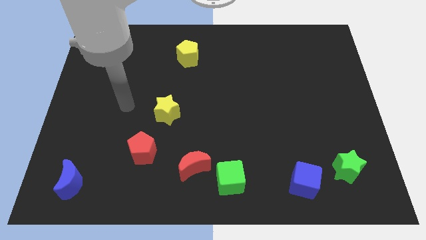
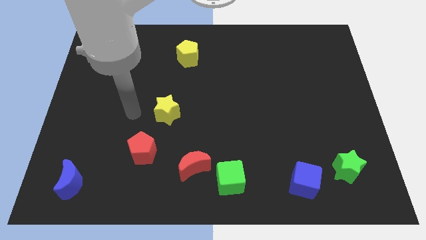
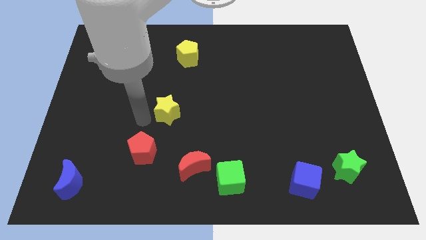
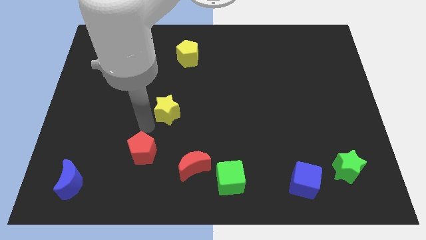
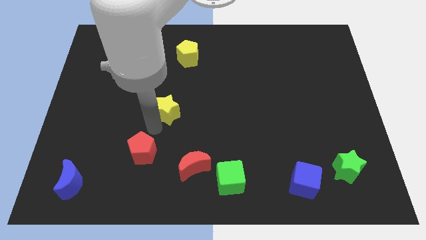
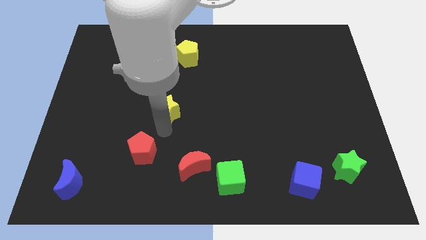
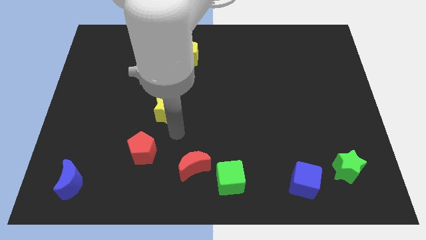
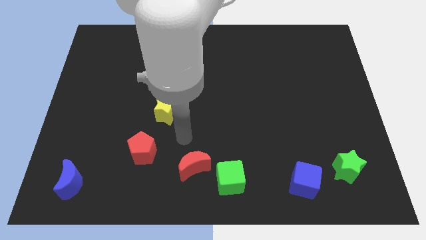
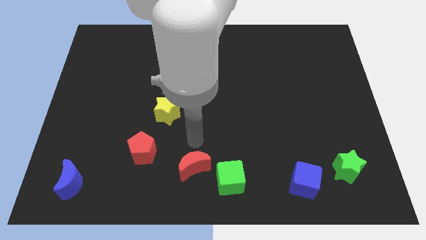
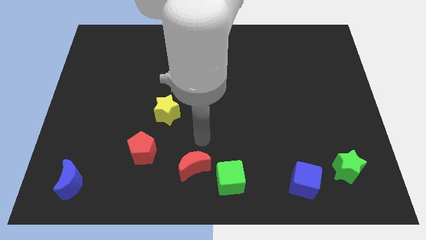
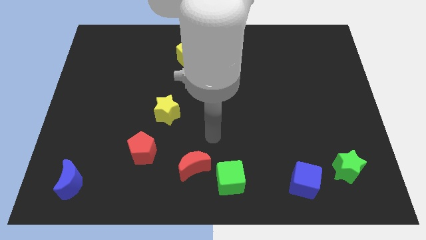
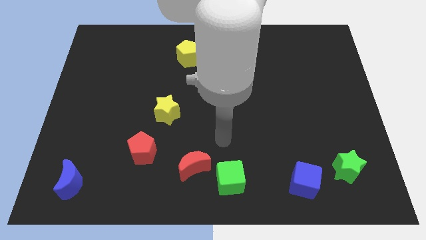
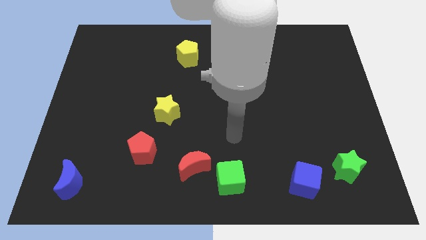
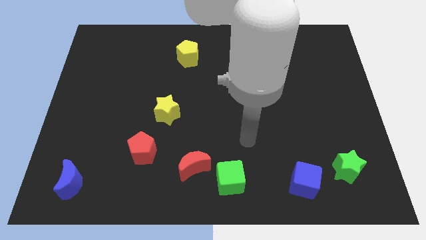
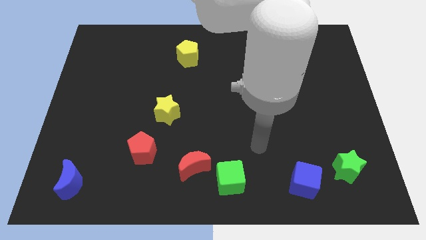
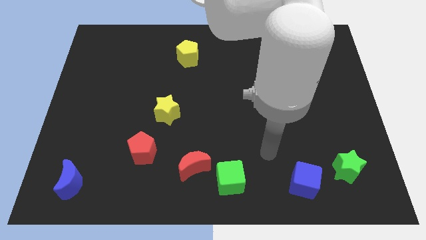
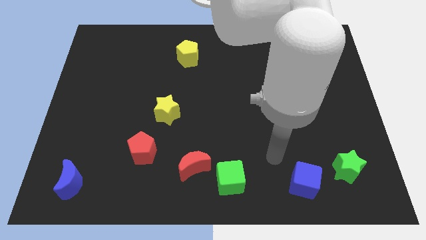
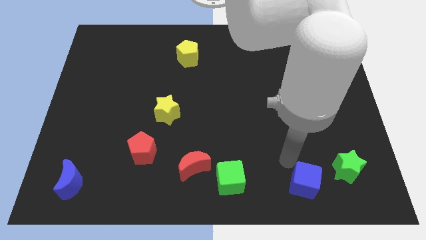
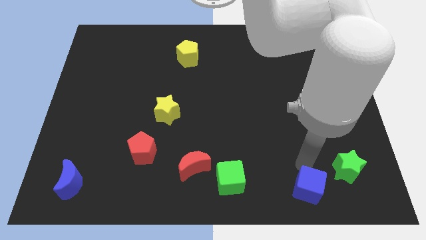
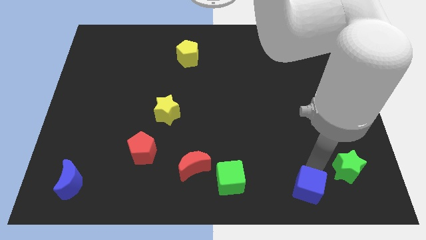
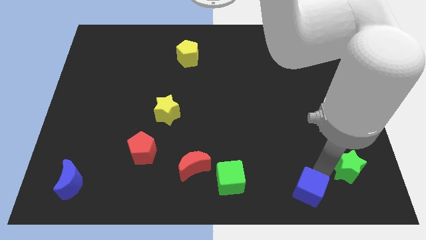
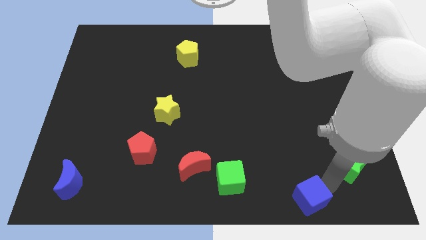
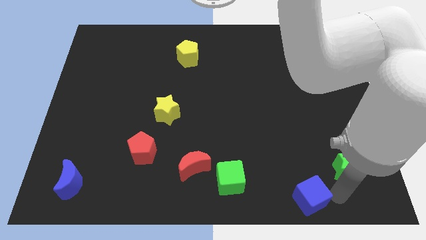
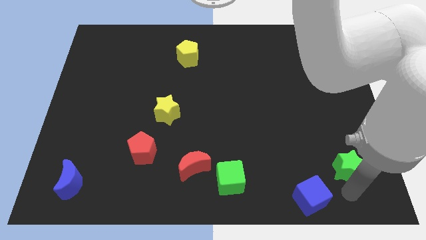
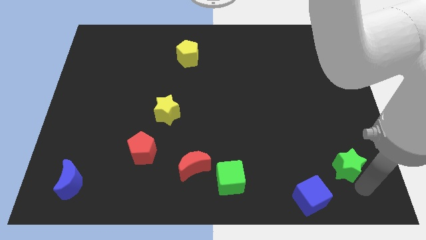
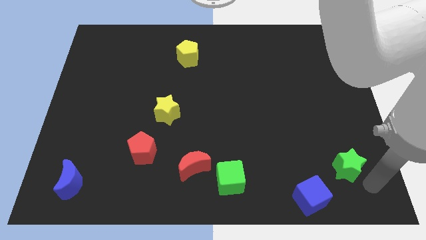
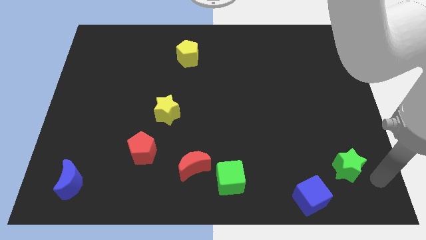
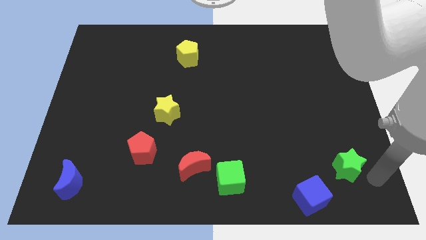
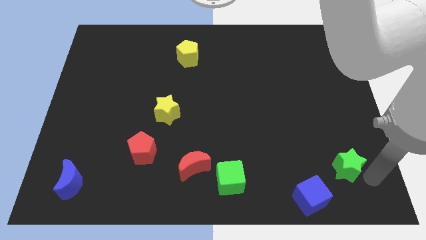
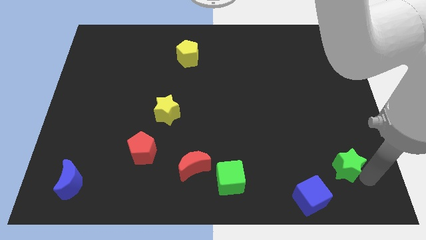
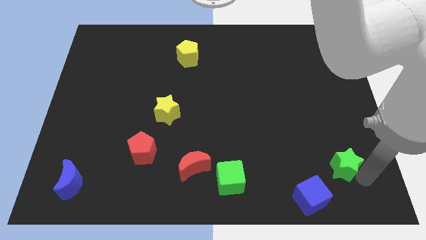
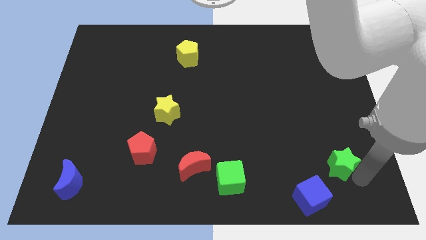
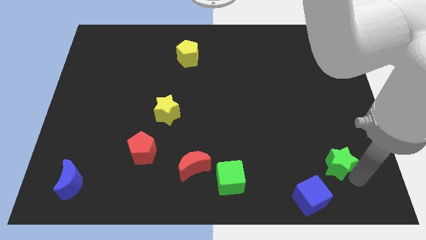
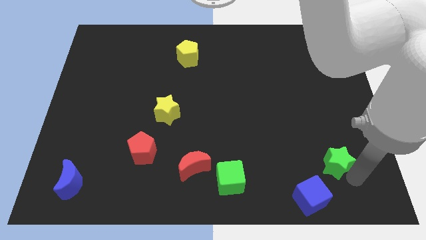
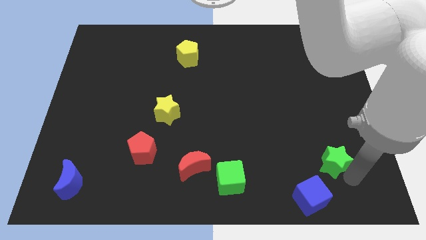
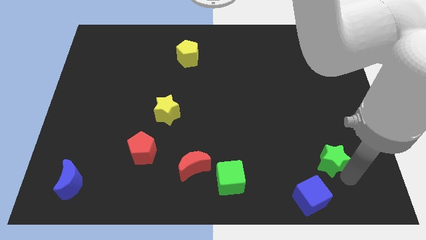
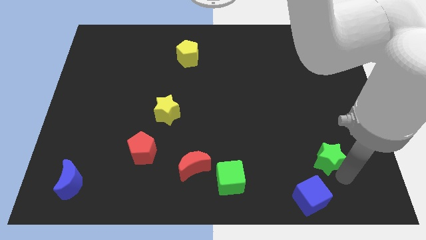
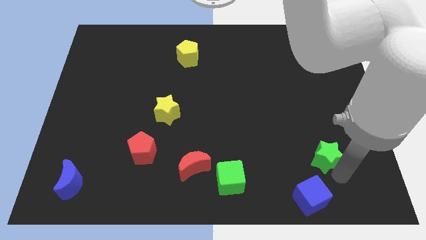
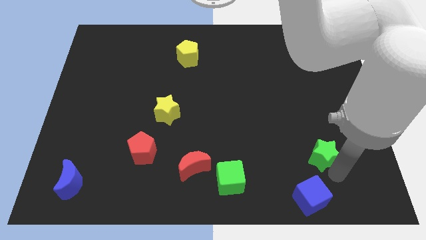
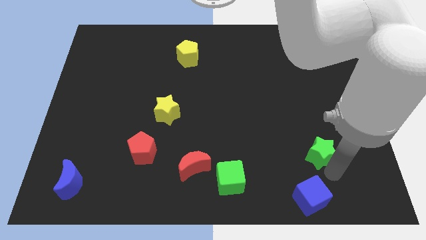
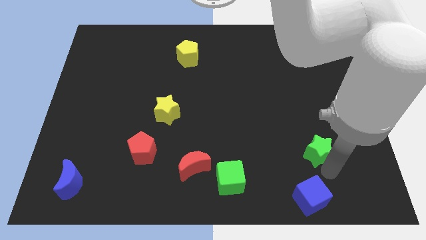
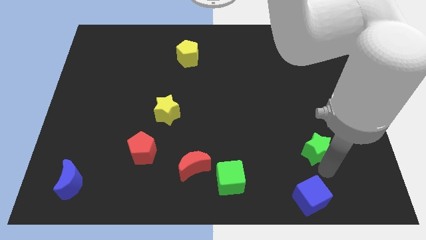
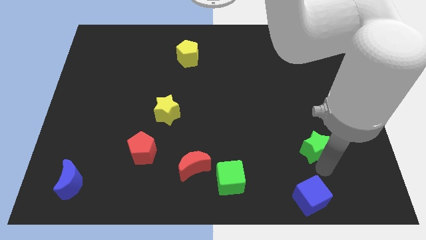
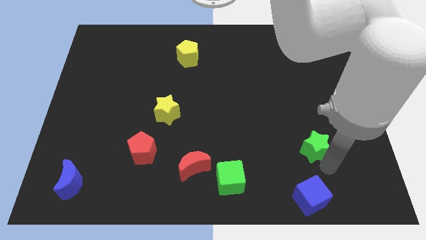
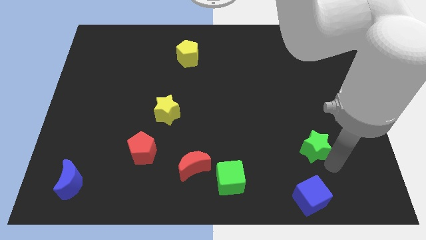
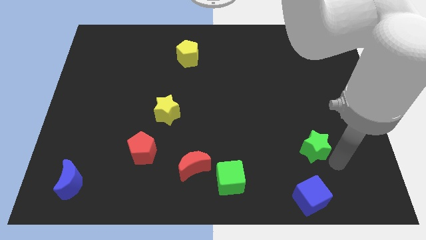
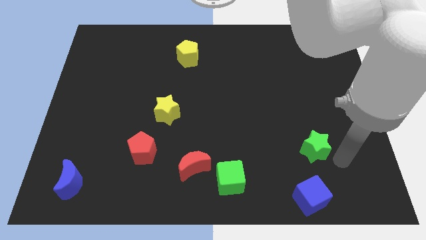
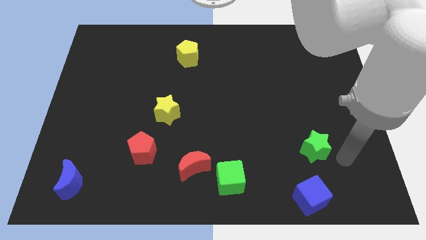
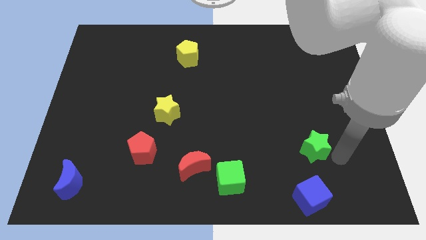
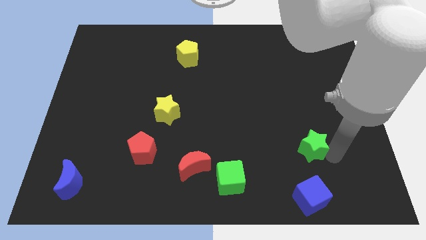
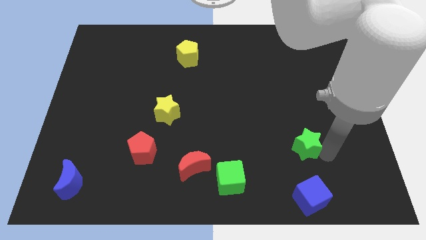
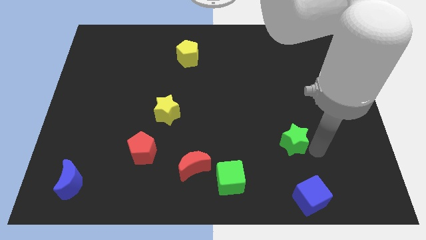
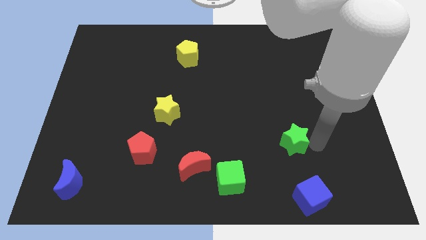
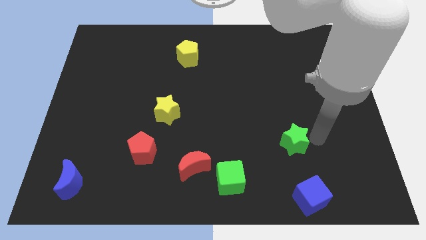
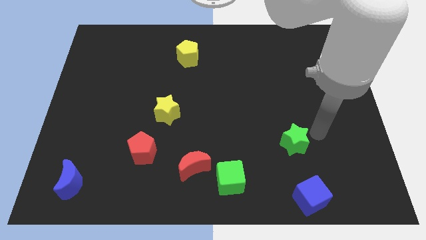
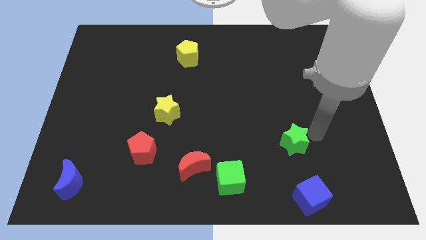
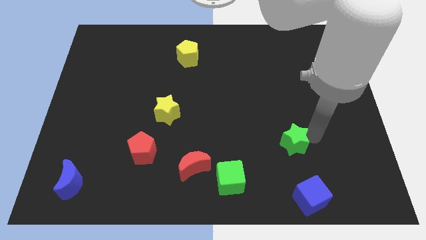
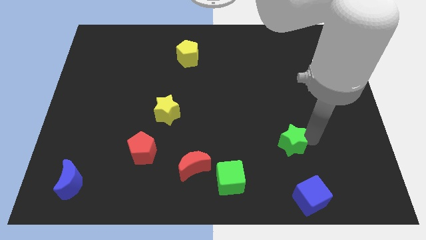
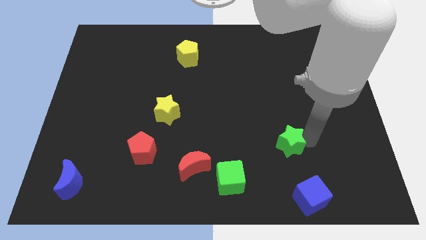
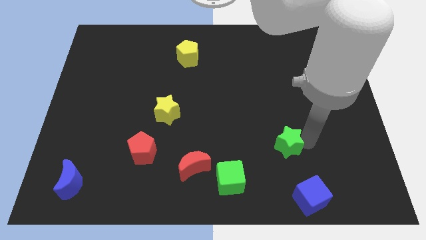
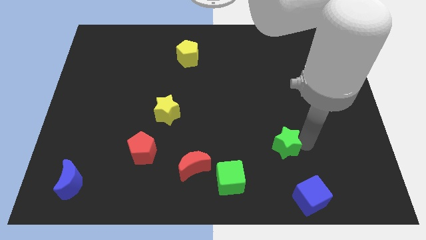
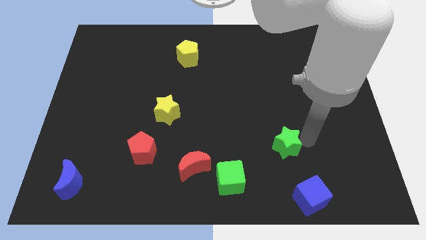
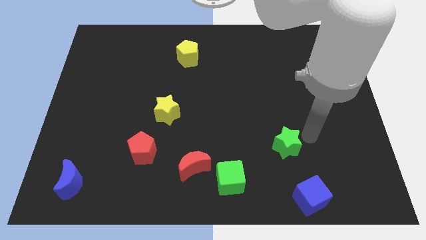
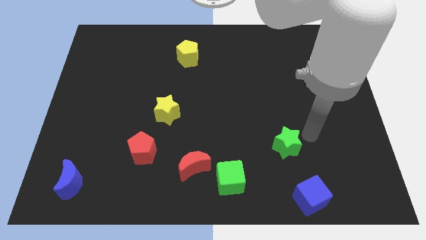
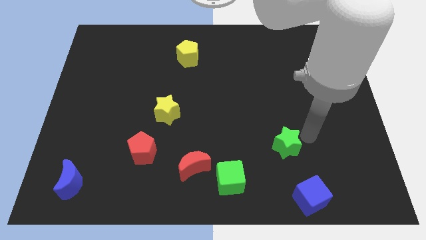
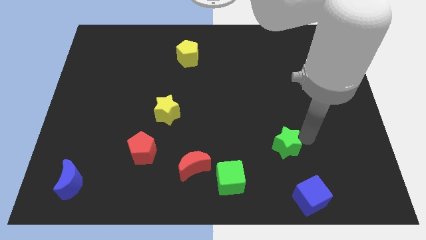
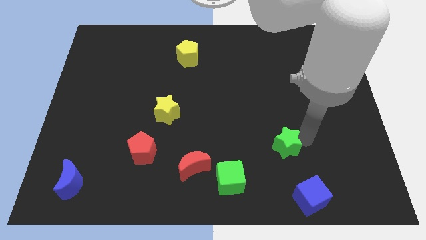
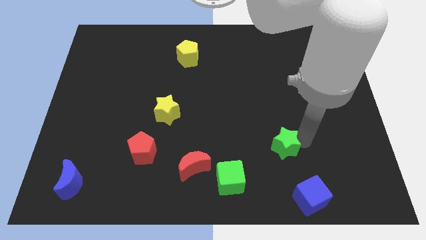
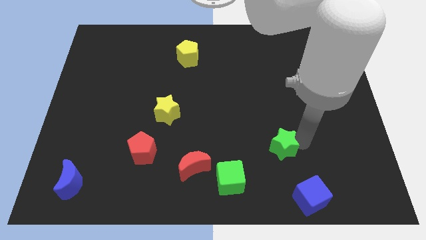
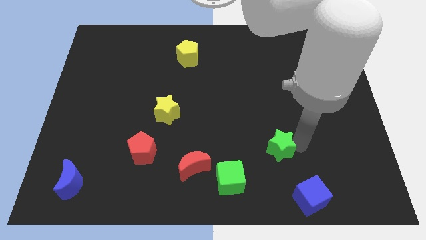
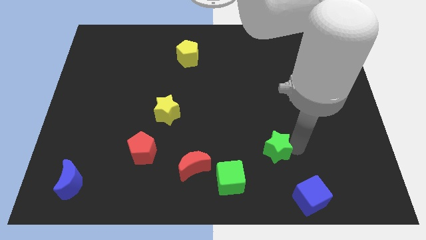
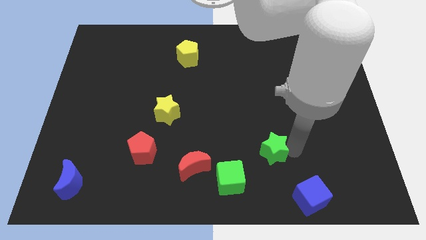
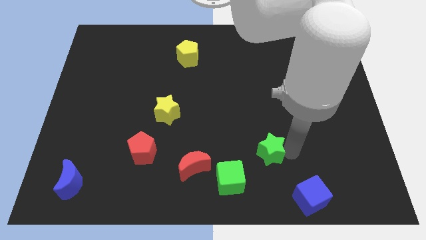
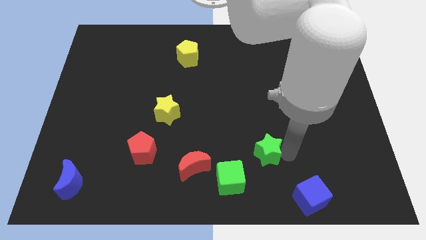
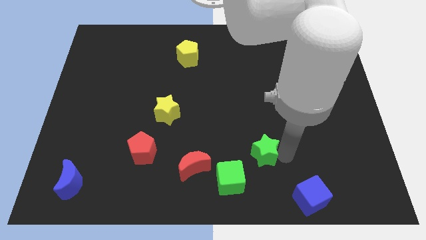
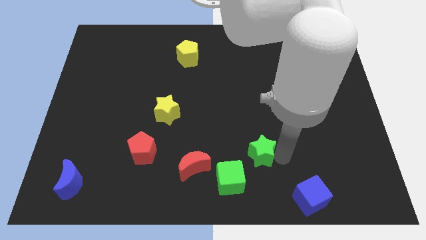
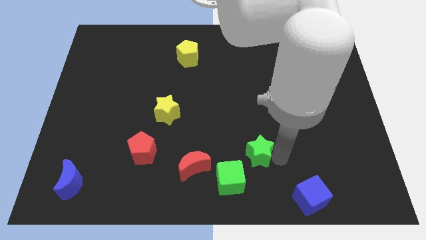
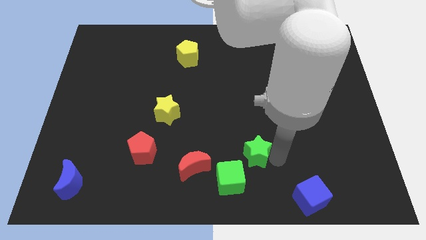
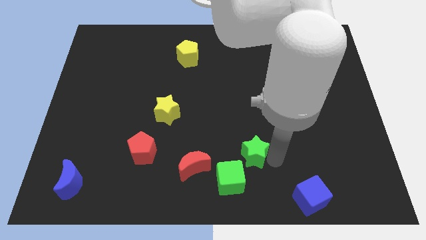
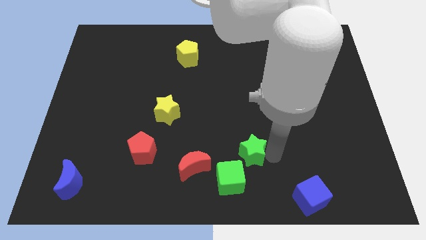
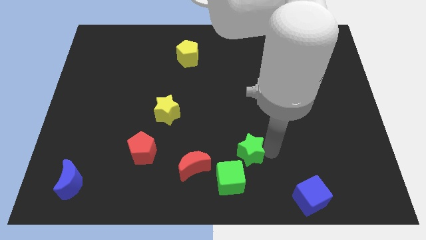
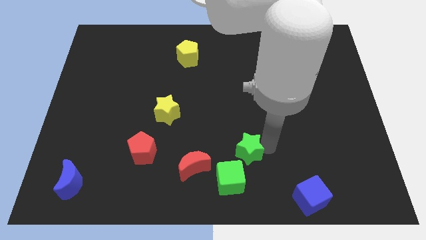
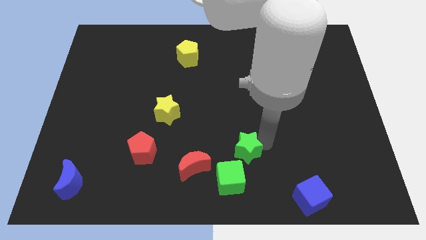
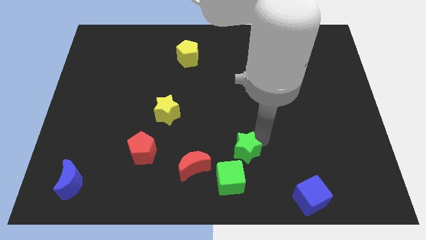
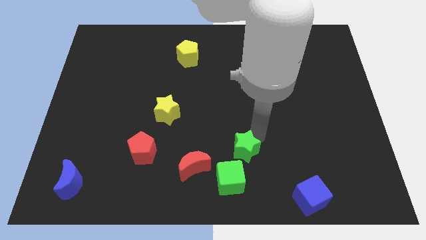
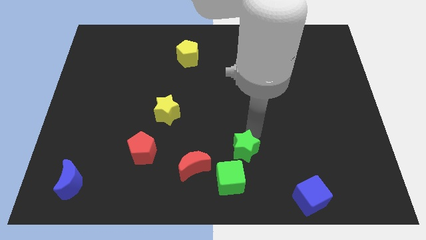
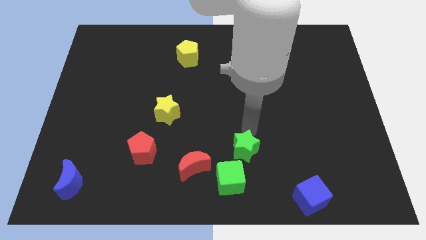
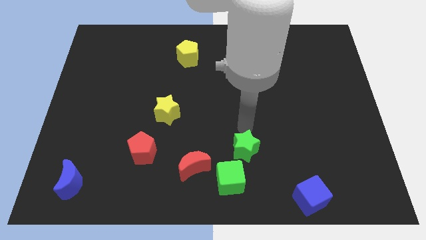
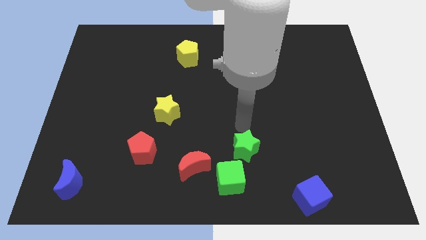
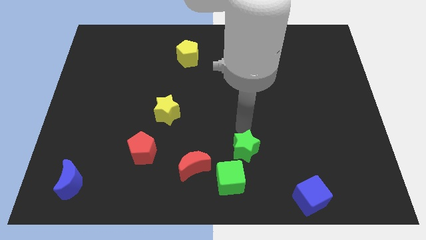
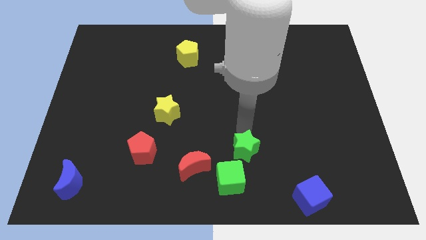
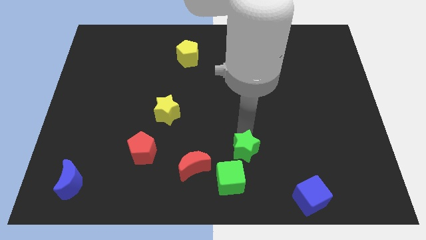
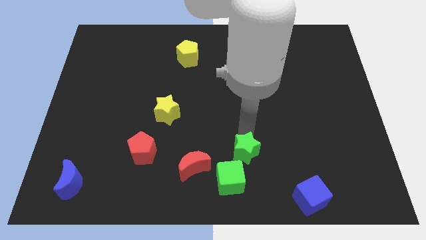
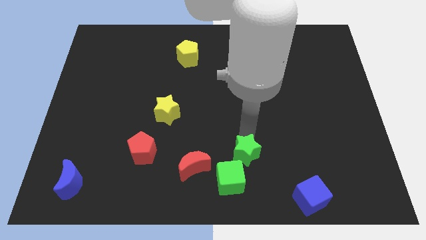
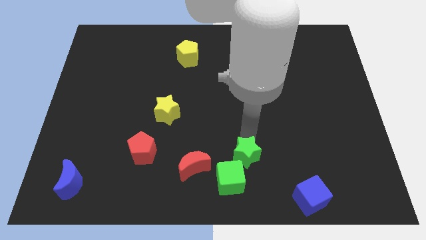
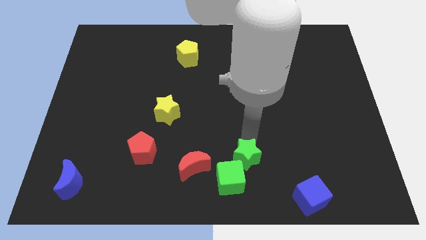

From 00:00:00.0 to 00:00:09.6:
put the green star next to the green cube
